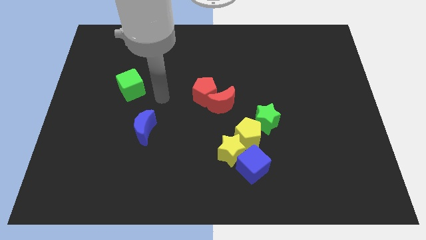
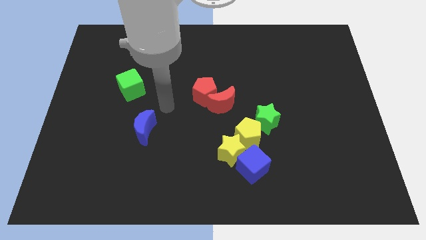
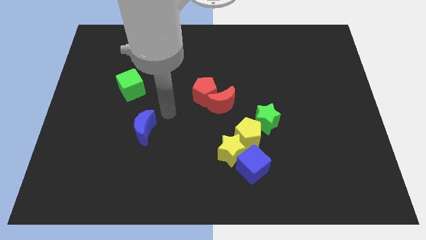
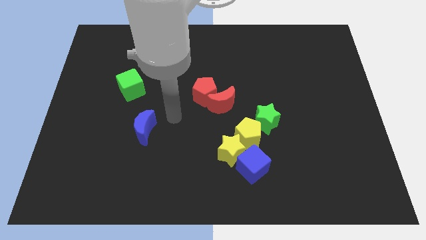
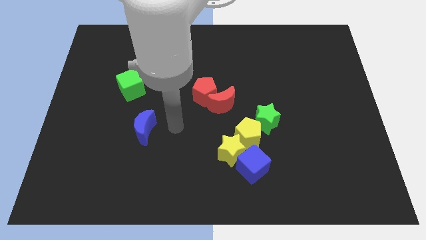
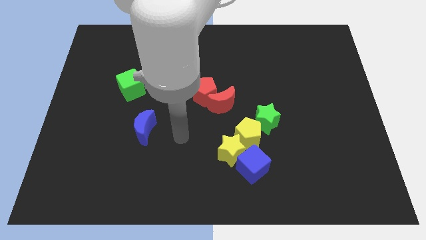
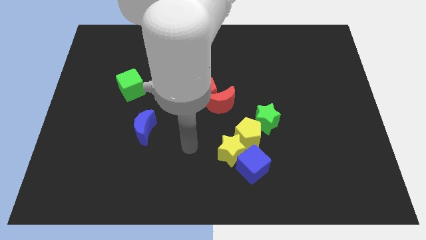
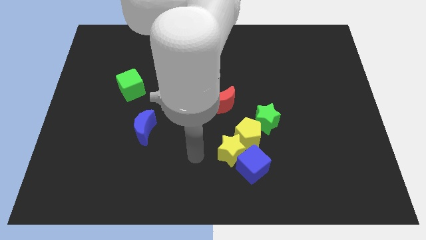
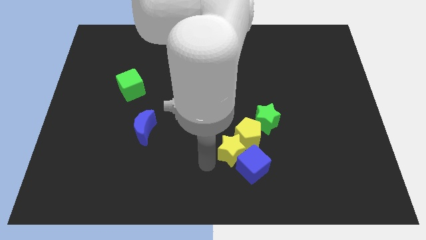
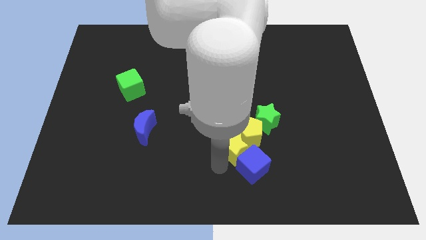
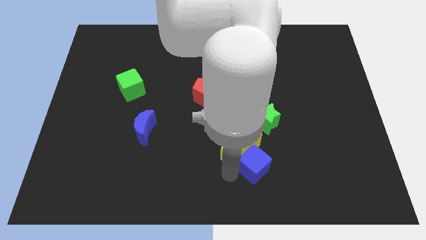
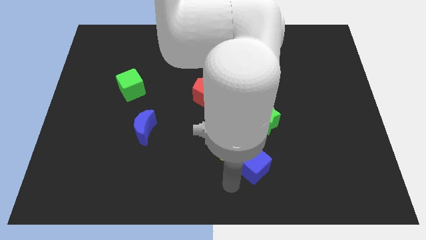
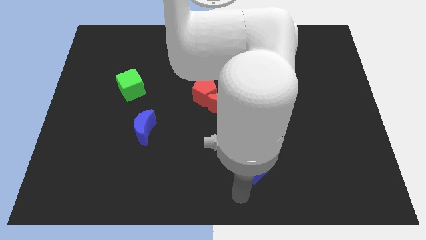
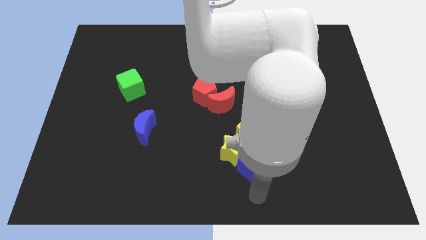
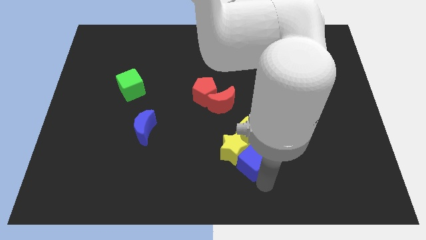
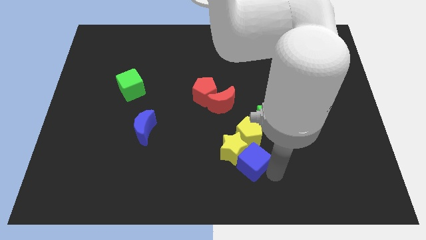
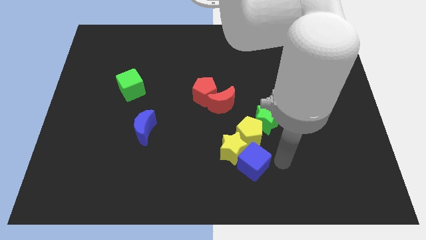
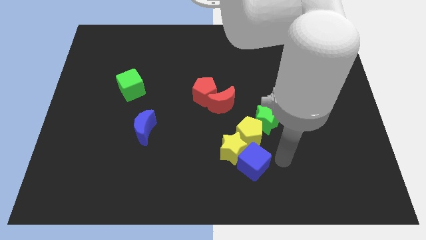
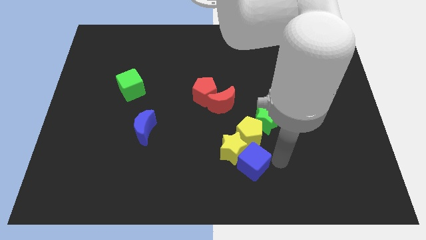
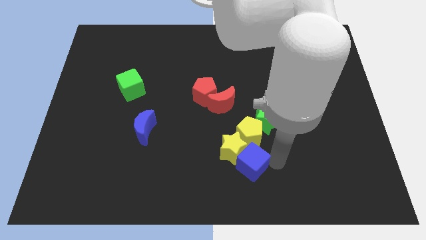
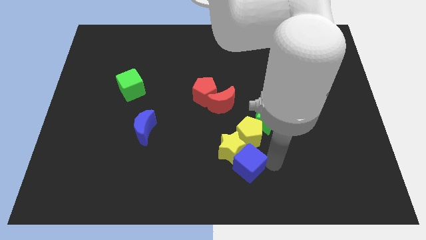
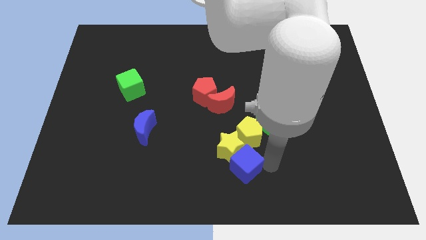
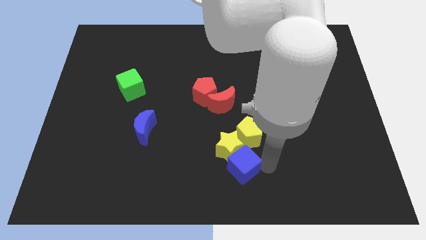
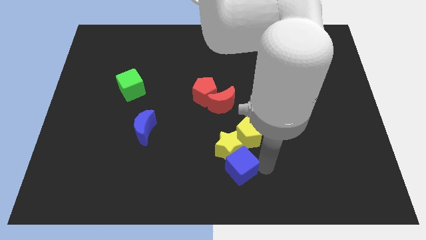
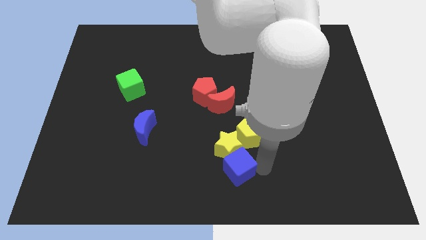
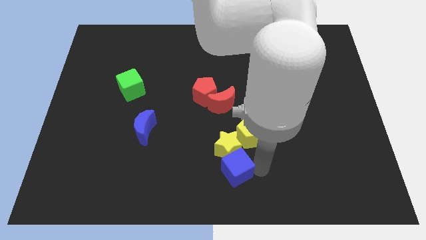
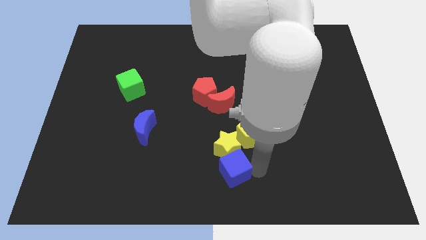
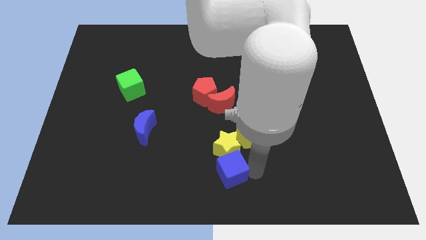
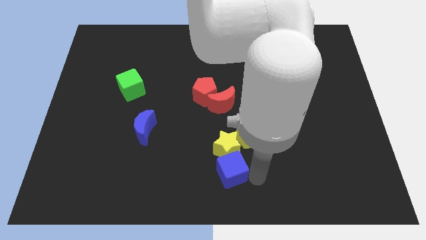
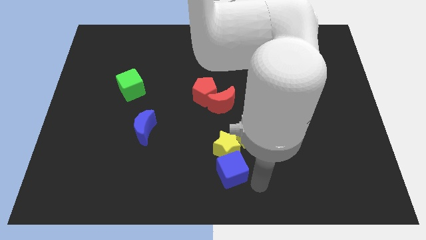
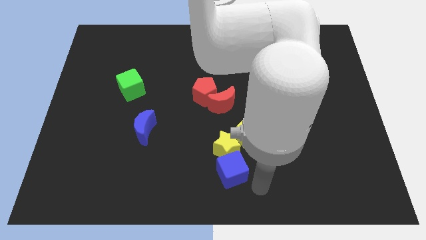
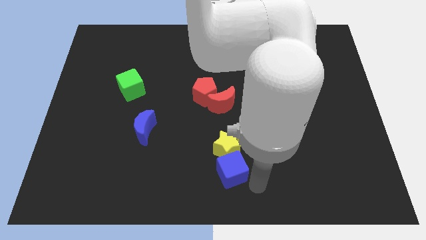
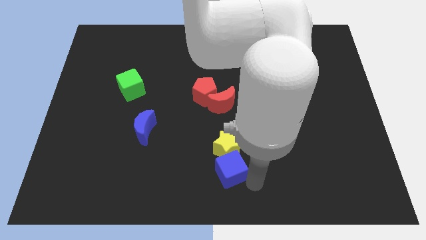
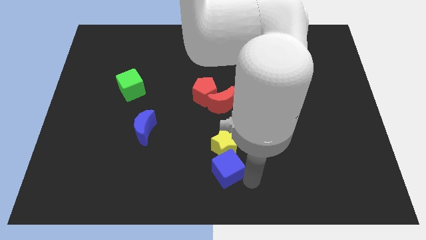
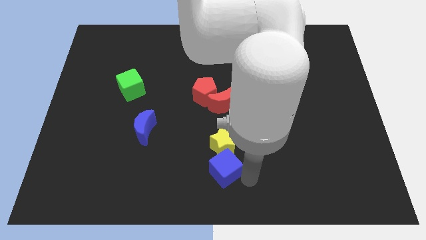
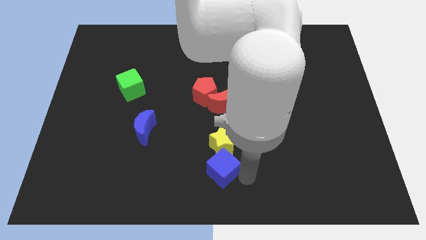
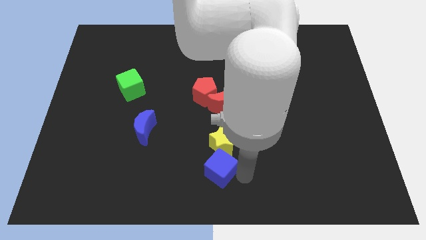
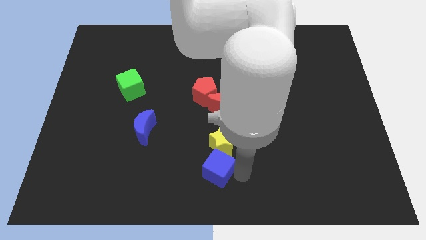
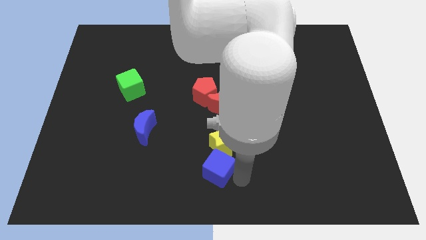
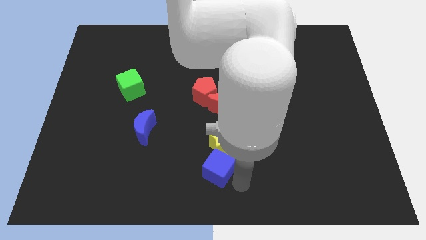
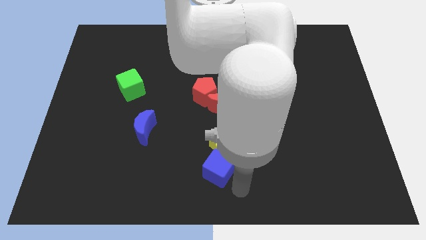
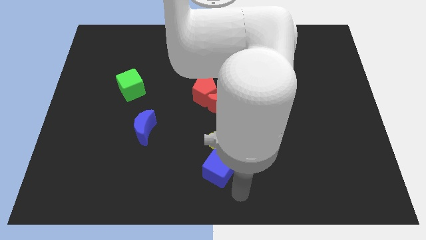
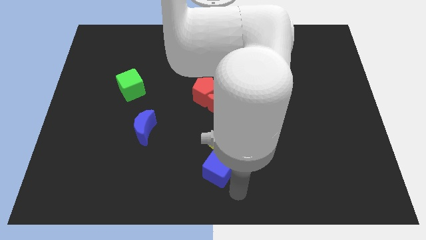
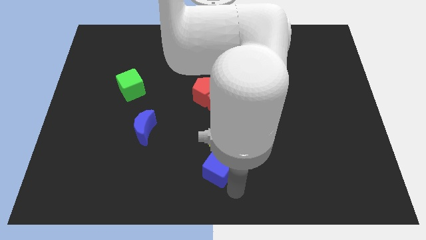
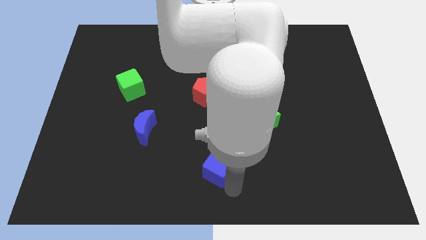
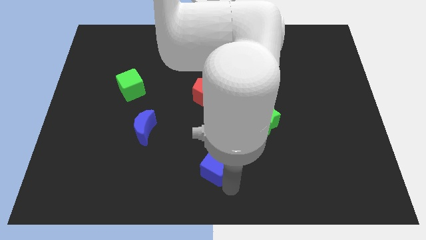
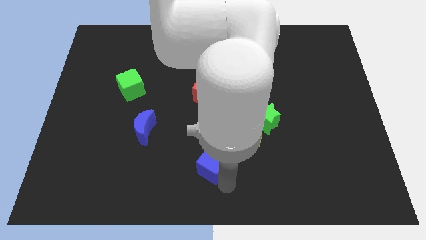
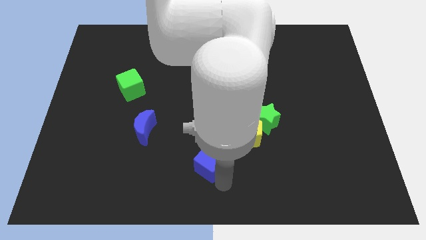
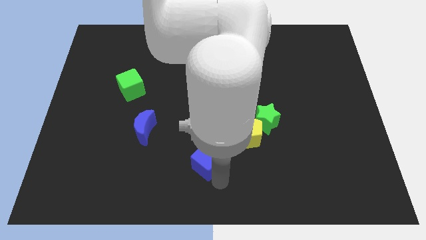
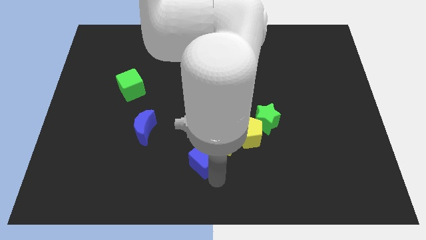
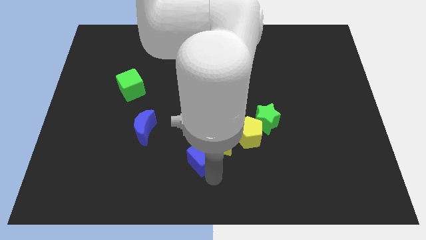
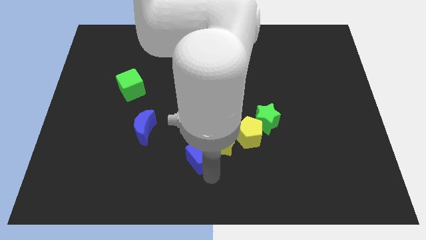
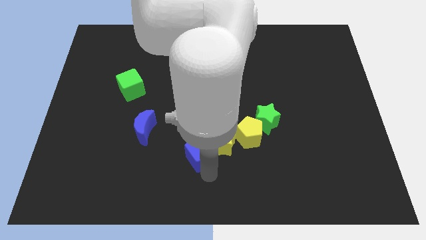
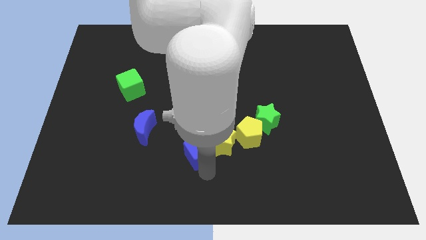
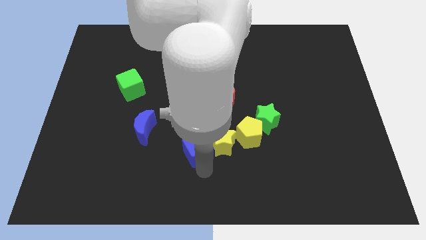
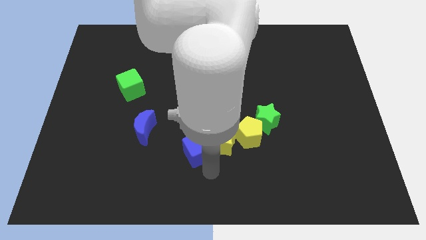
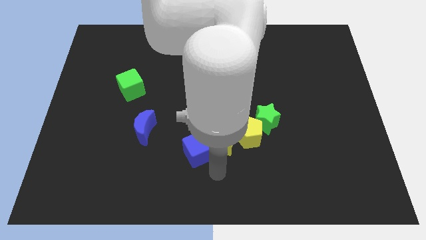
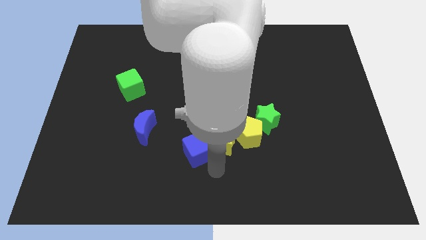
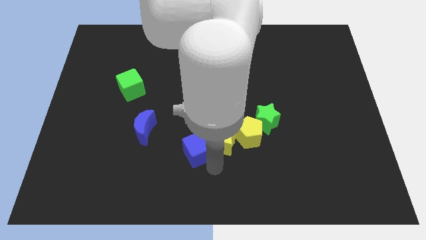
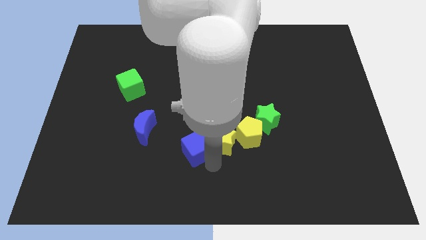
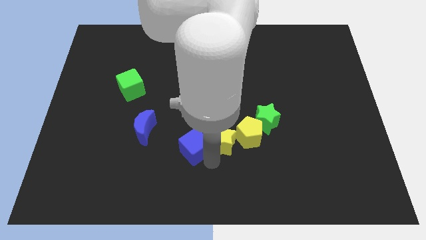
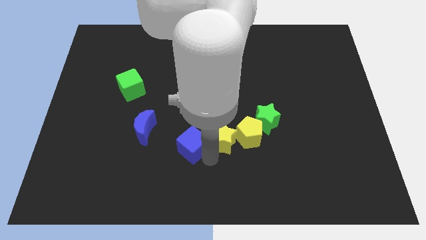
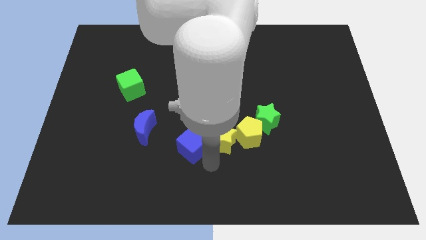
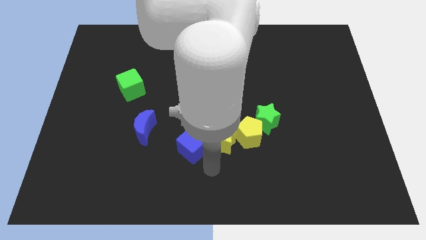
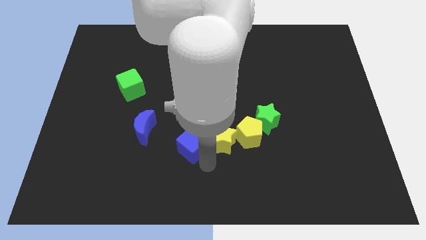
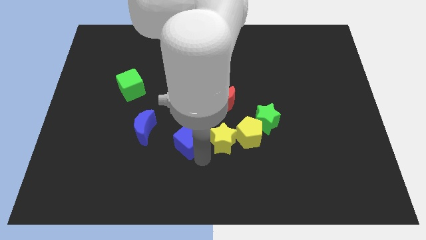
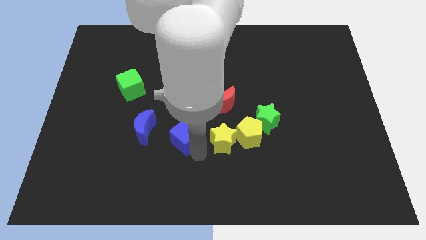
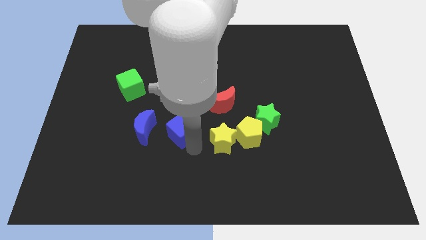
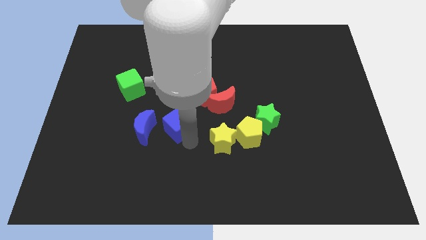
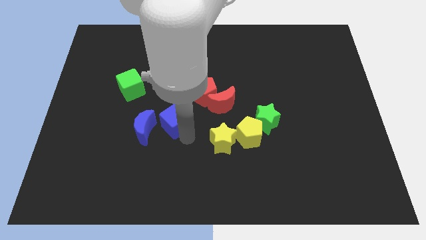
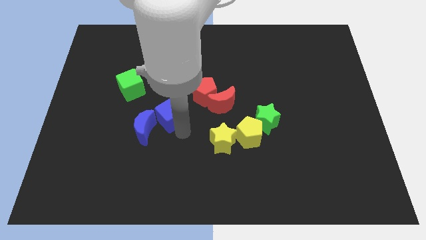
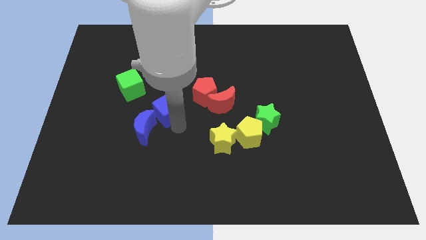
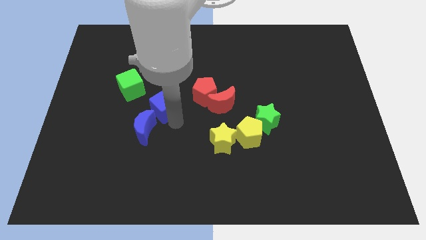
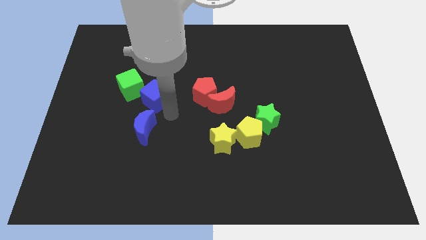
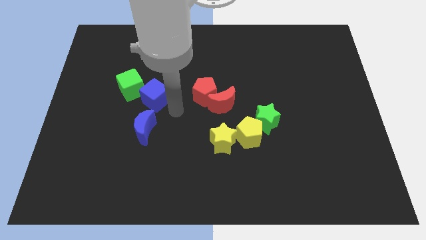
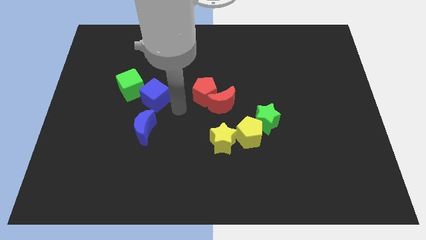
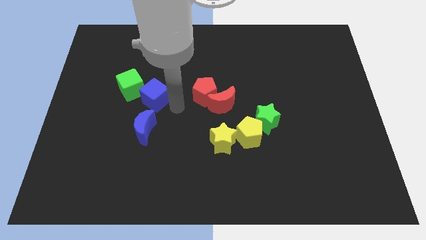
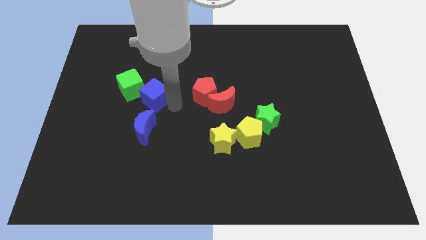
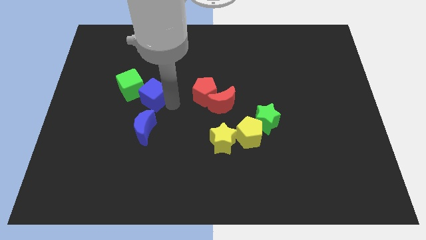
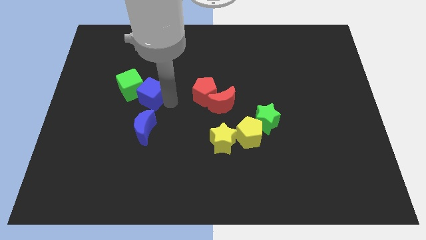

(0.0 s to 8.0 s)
put the blue cube to the green cube
